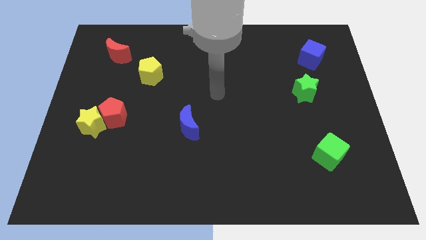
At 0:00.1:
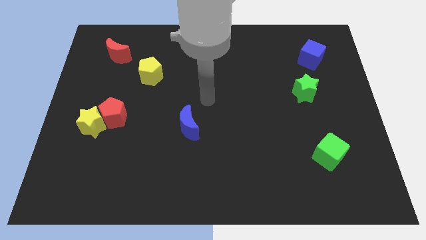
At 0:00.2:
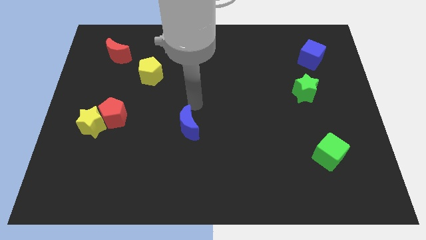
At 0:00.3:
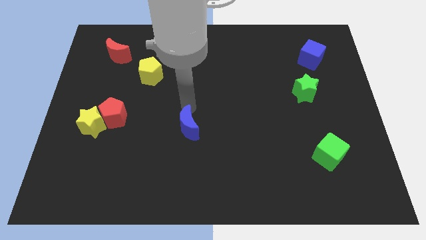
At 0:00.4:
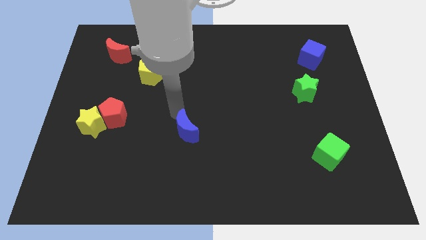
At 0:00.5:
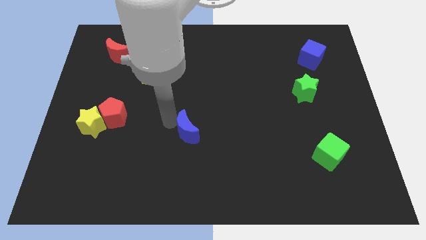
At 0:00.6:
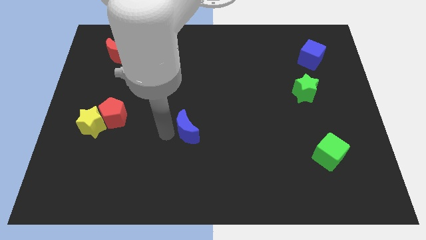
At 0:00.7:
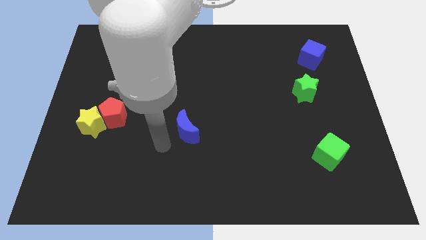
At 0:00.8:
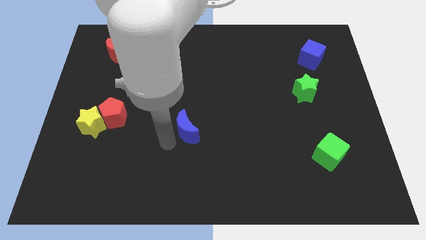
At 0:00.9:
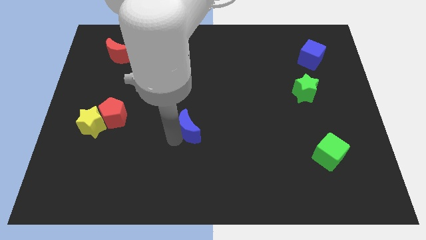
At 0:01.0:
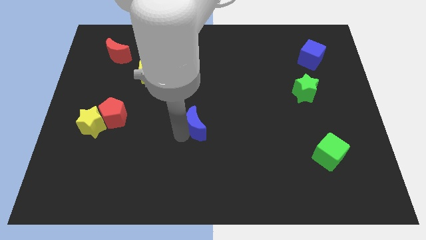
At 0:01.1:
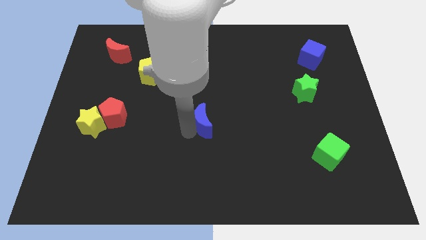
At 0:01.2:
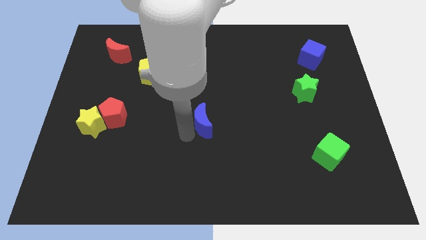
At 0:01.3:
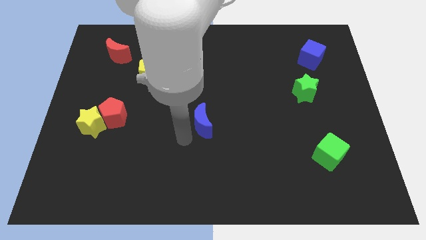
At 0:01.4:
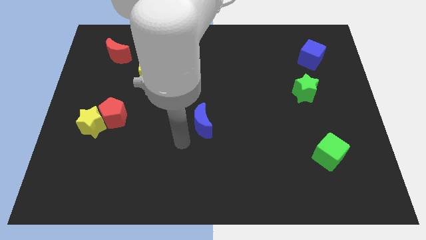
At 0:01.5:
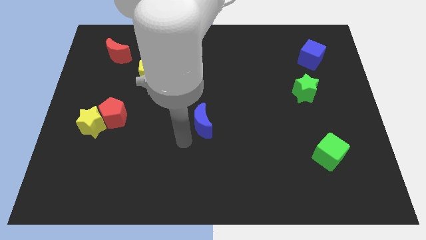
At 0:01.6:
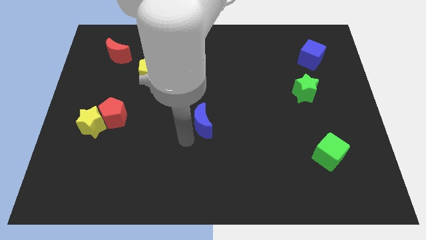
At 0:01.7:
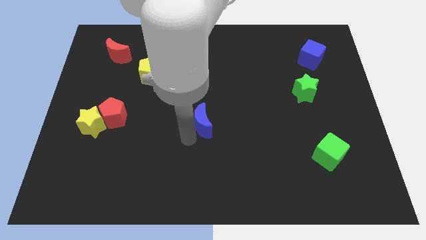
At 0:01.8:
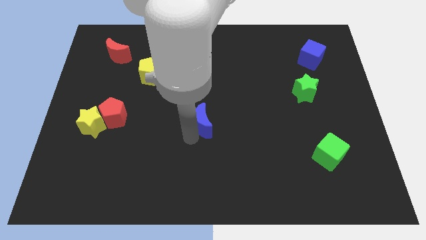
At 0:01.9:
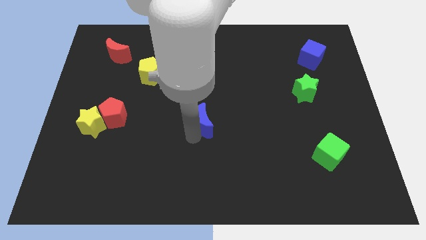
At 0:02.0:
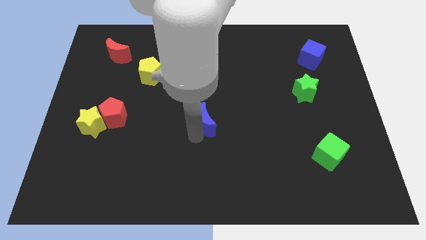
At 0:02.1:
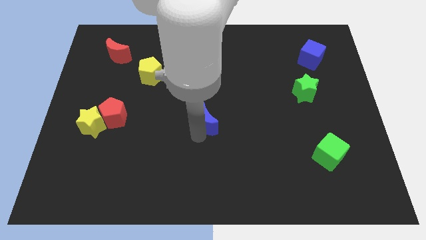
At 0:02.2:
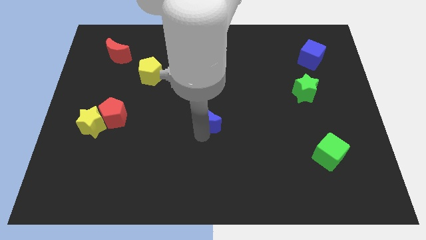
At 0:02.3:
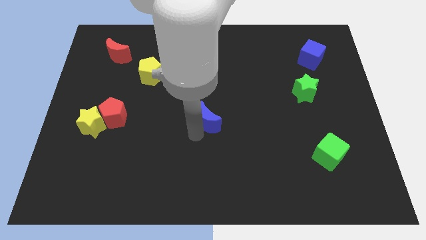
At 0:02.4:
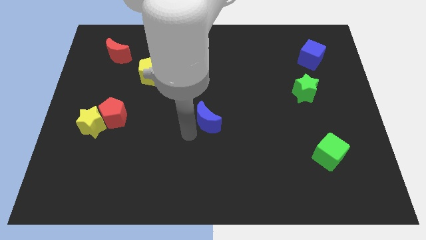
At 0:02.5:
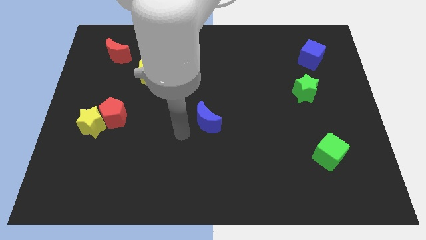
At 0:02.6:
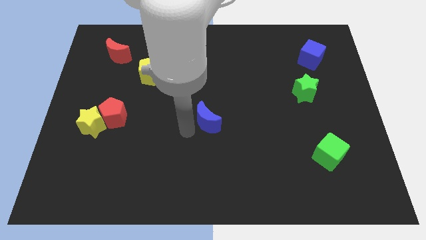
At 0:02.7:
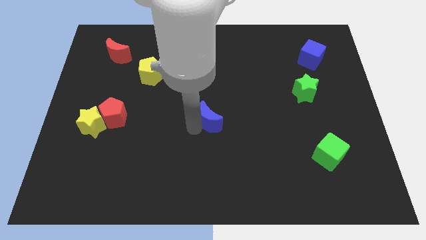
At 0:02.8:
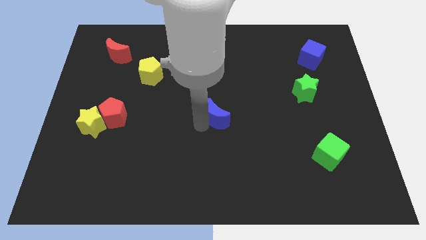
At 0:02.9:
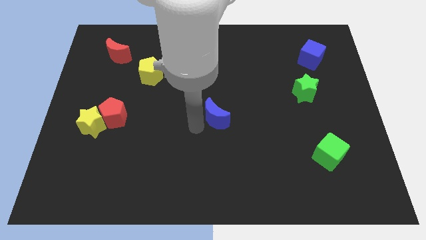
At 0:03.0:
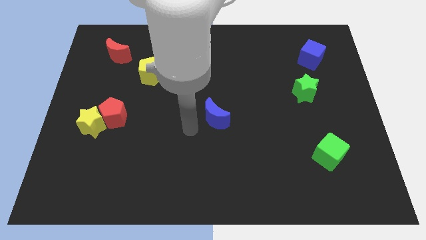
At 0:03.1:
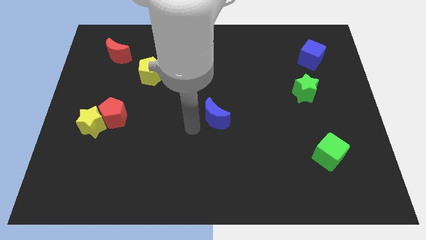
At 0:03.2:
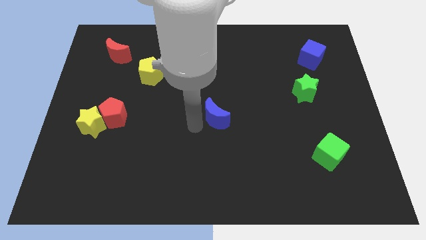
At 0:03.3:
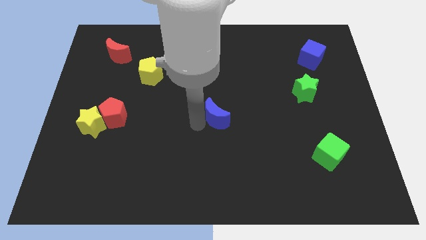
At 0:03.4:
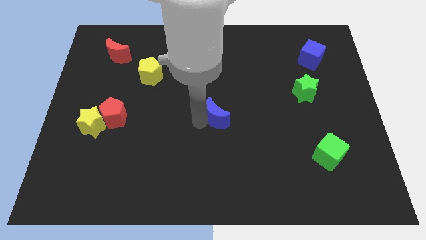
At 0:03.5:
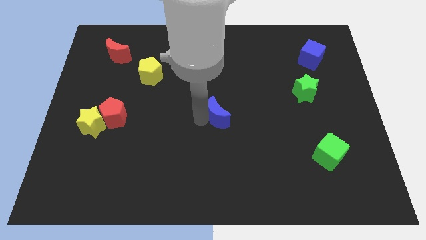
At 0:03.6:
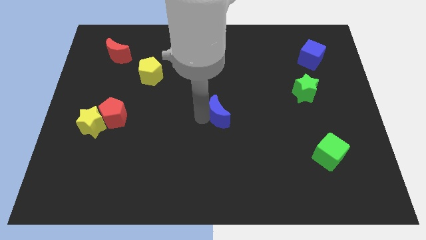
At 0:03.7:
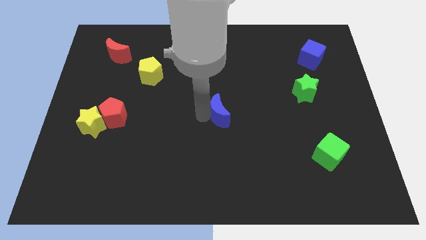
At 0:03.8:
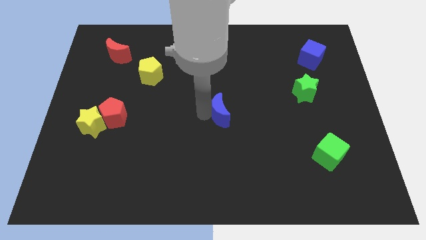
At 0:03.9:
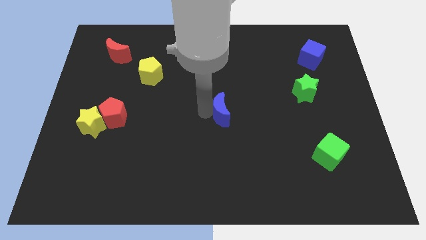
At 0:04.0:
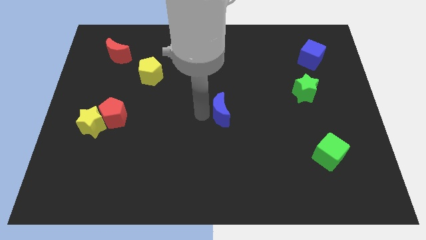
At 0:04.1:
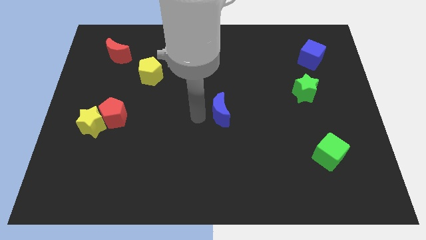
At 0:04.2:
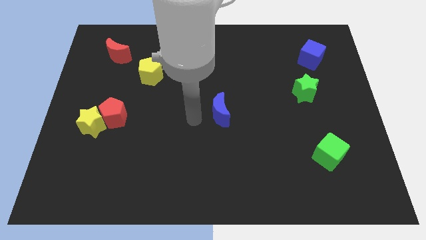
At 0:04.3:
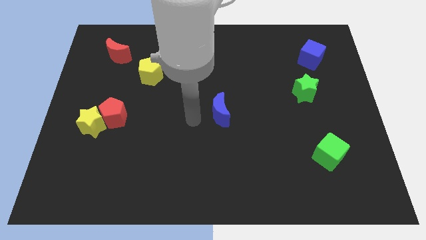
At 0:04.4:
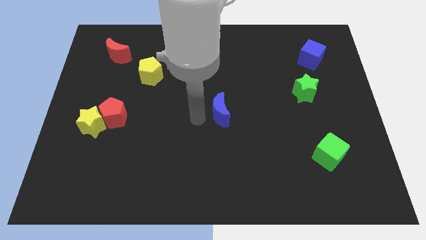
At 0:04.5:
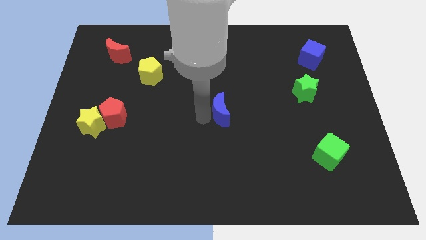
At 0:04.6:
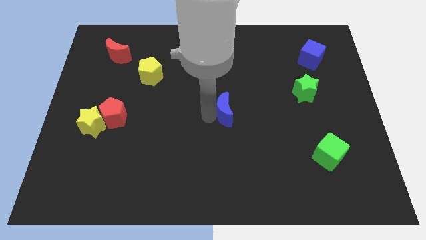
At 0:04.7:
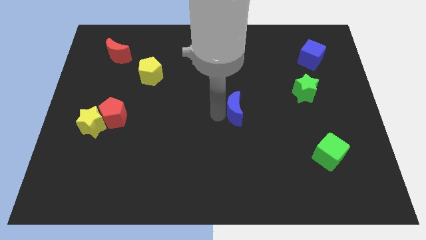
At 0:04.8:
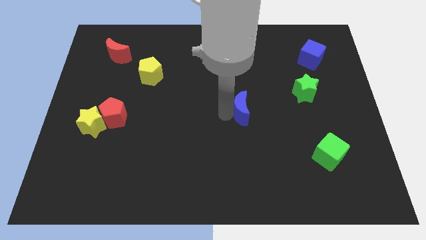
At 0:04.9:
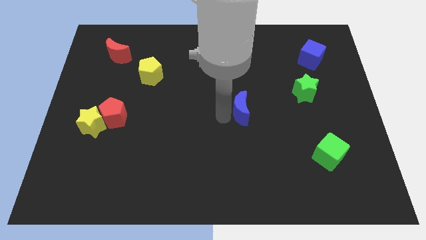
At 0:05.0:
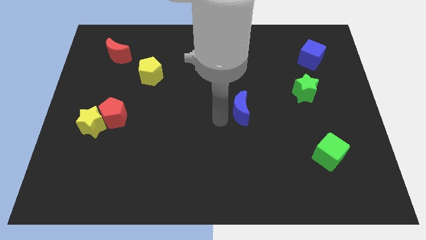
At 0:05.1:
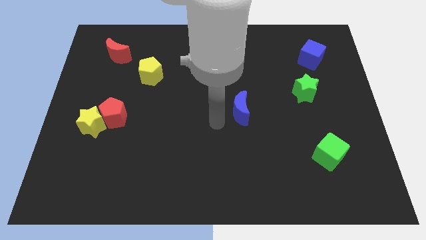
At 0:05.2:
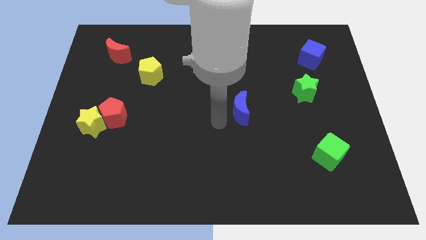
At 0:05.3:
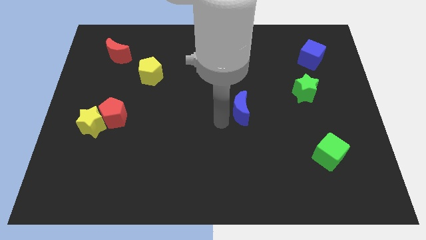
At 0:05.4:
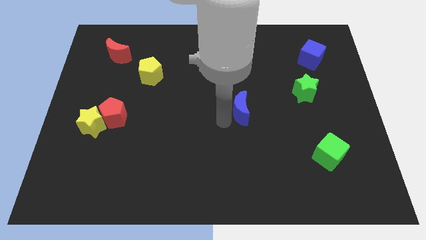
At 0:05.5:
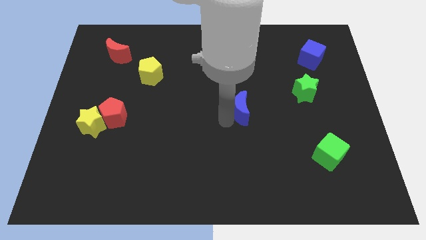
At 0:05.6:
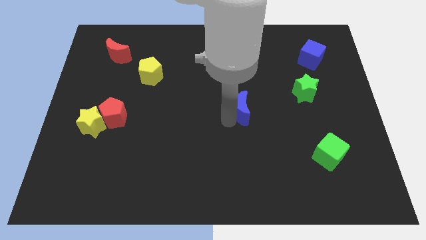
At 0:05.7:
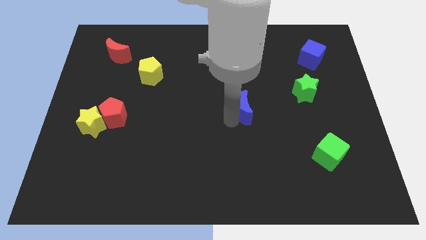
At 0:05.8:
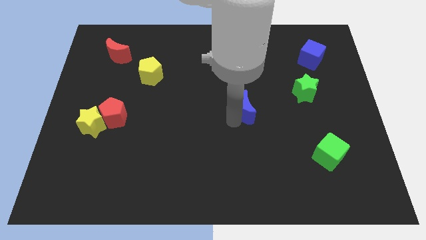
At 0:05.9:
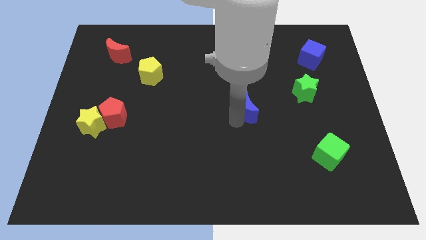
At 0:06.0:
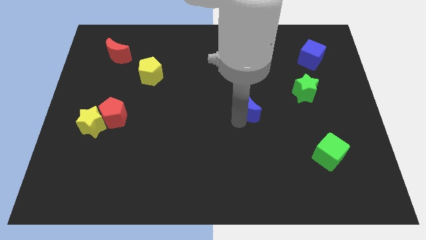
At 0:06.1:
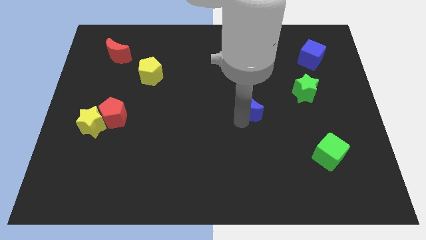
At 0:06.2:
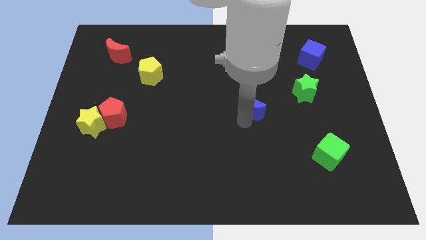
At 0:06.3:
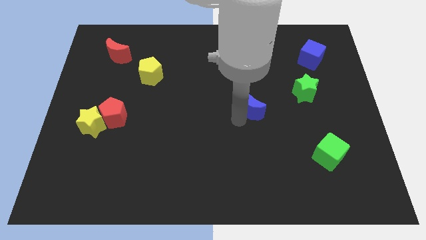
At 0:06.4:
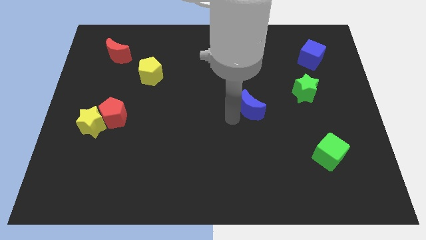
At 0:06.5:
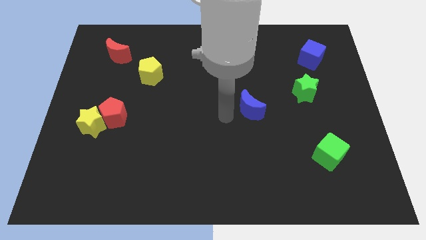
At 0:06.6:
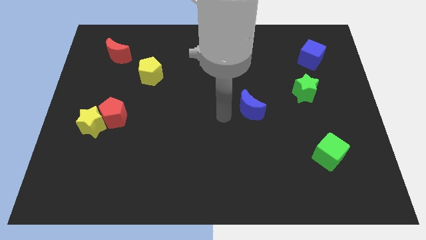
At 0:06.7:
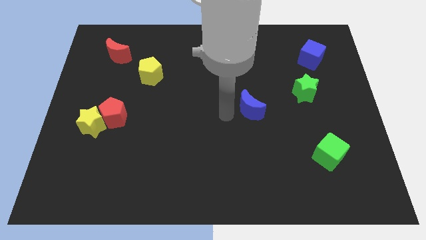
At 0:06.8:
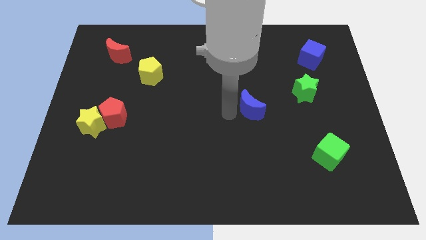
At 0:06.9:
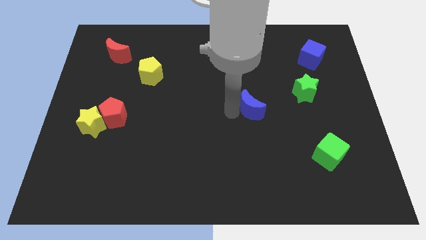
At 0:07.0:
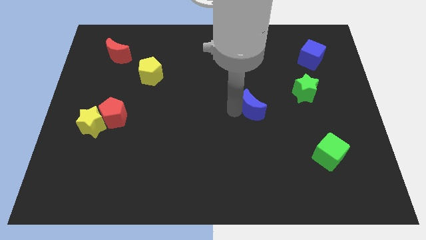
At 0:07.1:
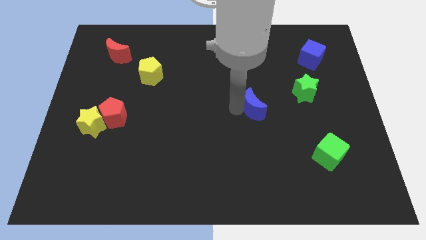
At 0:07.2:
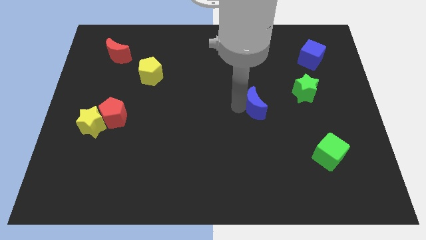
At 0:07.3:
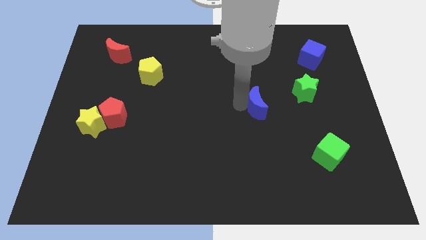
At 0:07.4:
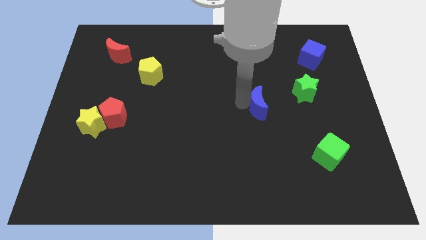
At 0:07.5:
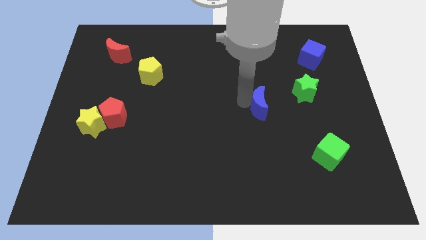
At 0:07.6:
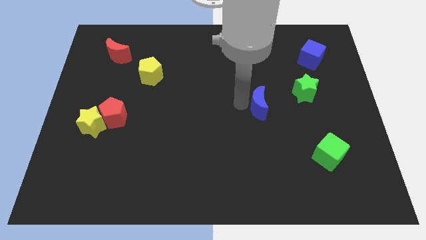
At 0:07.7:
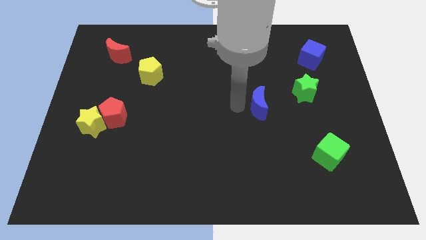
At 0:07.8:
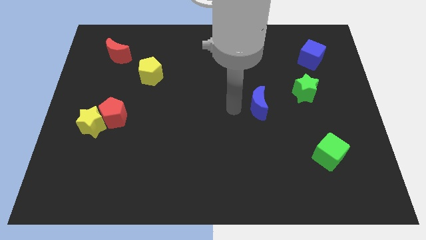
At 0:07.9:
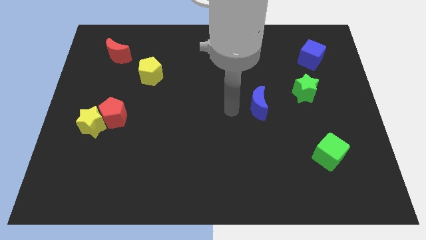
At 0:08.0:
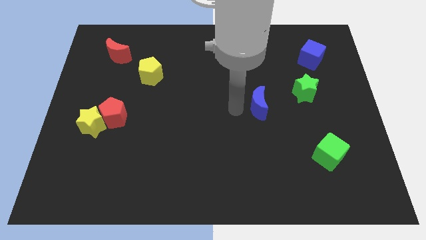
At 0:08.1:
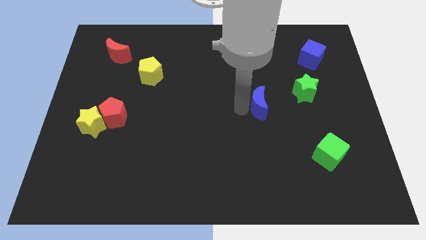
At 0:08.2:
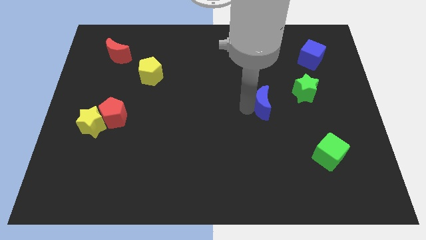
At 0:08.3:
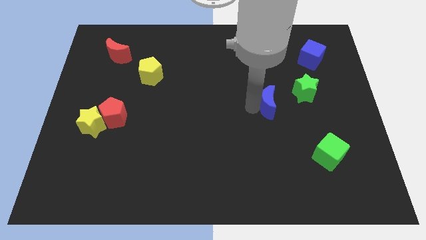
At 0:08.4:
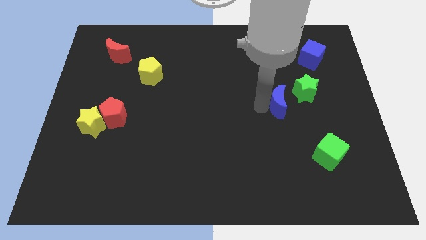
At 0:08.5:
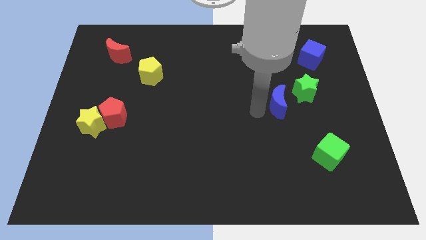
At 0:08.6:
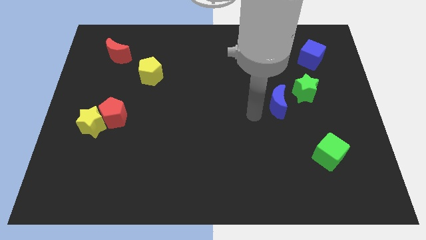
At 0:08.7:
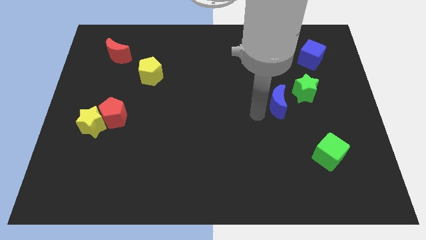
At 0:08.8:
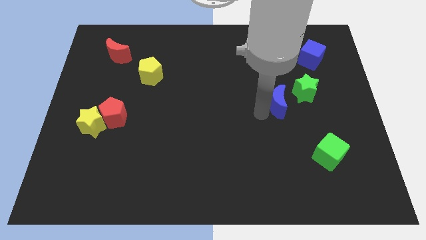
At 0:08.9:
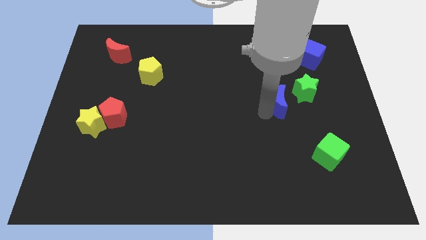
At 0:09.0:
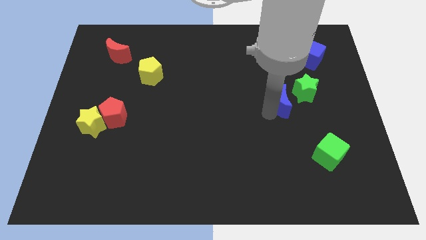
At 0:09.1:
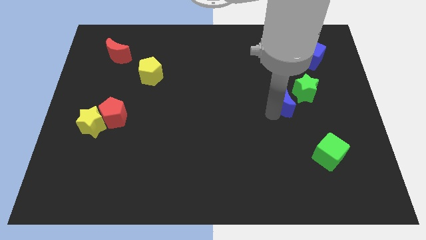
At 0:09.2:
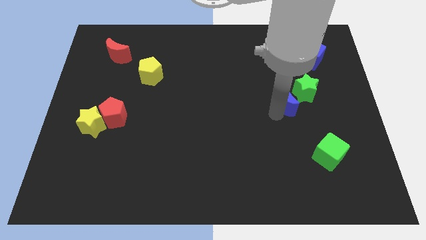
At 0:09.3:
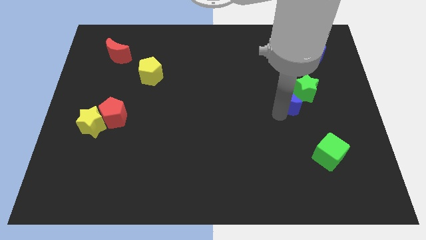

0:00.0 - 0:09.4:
slide the blue moon close to the green star
